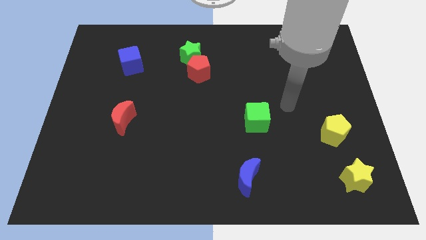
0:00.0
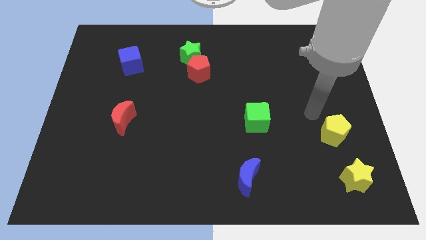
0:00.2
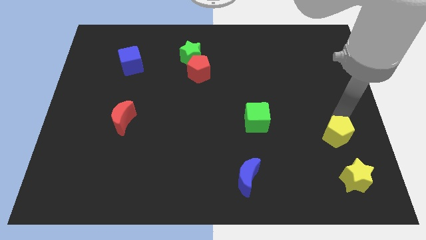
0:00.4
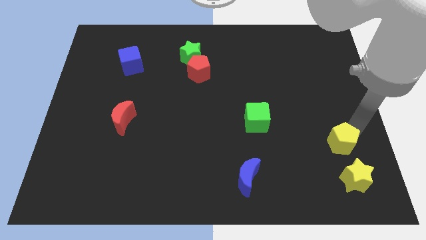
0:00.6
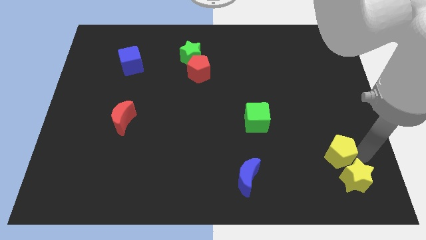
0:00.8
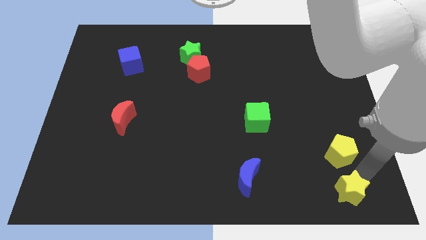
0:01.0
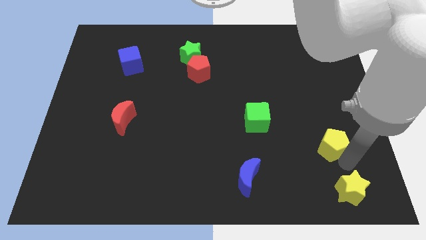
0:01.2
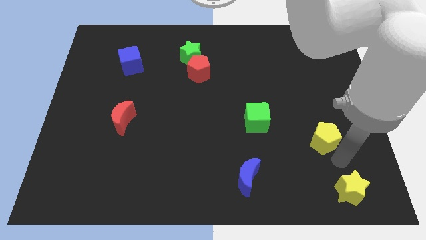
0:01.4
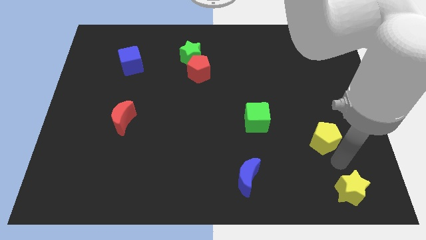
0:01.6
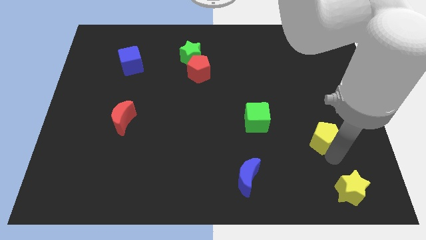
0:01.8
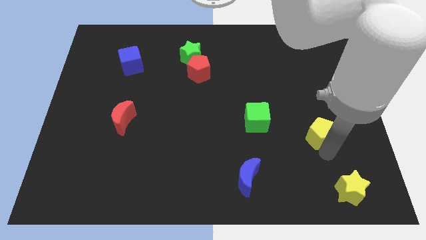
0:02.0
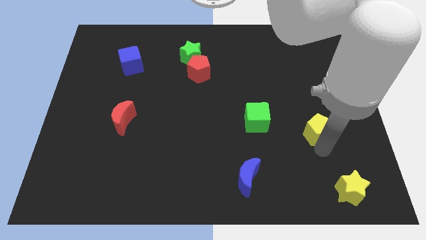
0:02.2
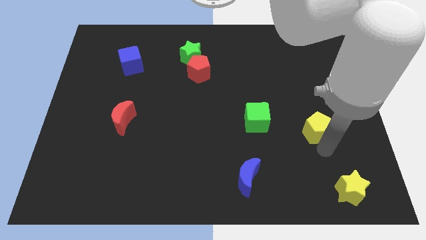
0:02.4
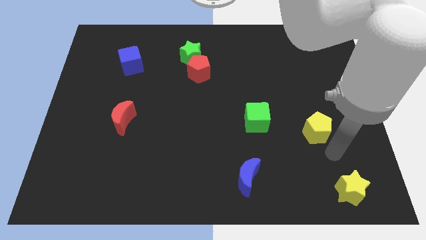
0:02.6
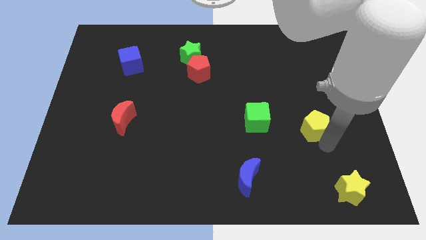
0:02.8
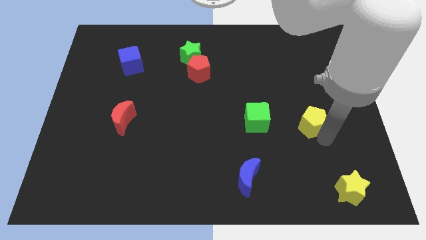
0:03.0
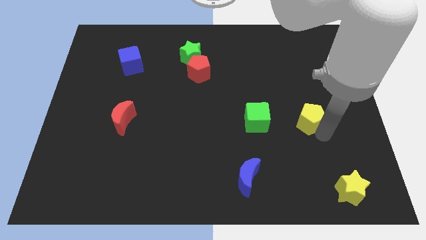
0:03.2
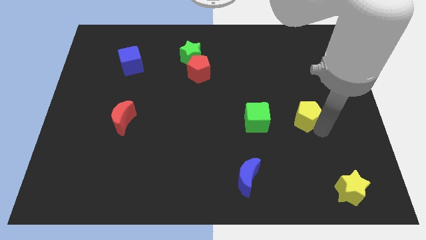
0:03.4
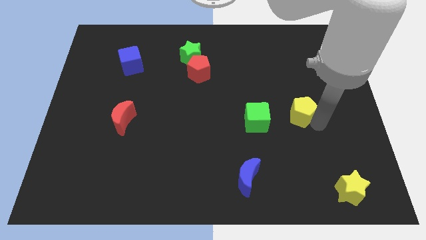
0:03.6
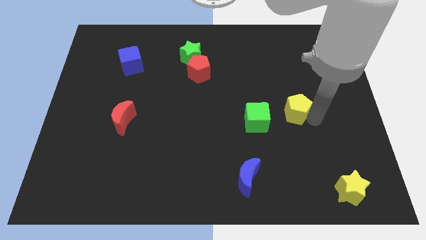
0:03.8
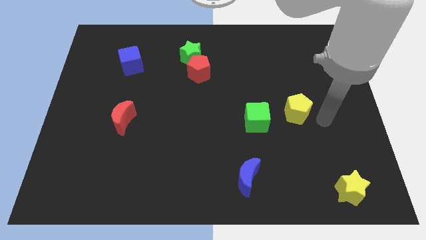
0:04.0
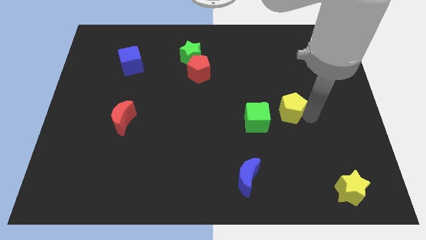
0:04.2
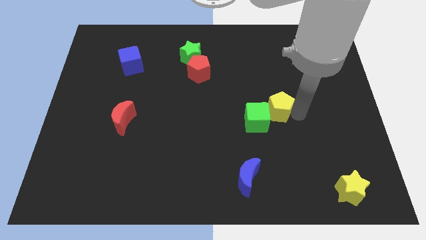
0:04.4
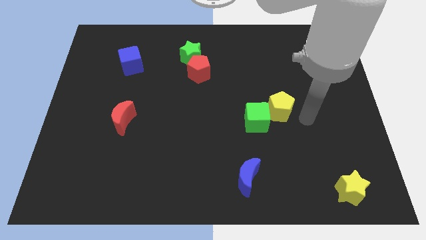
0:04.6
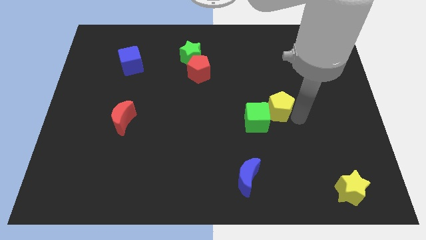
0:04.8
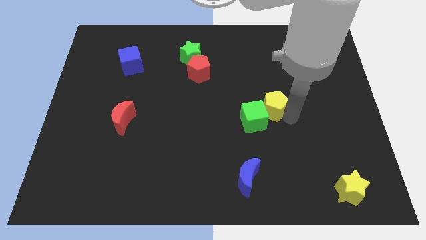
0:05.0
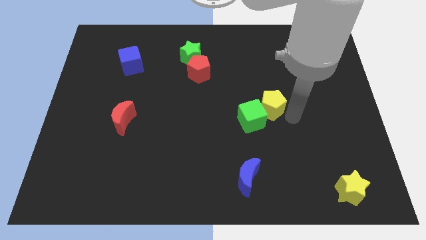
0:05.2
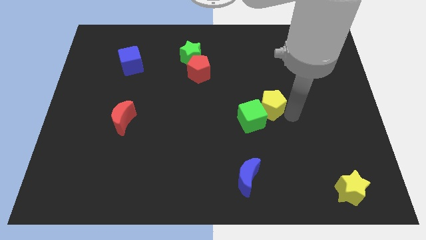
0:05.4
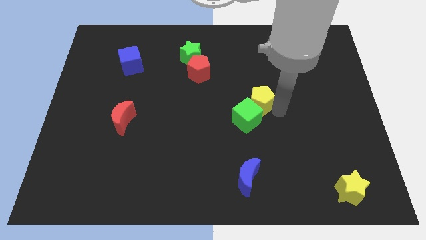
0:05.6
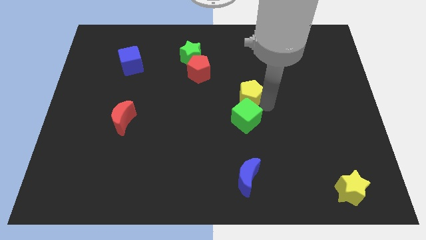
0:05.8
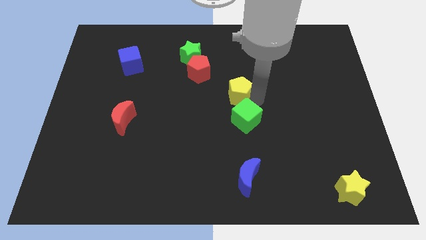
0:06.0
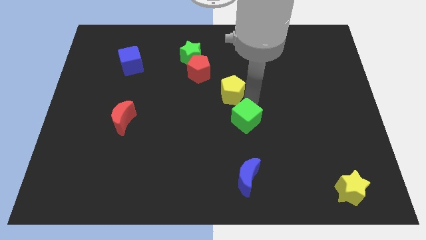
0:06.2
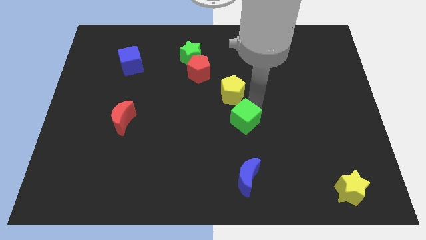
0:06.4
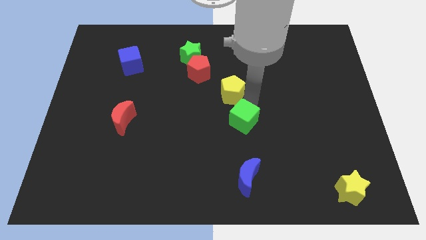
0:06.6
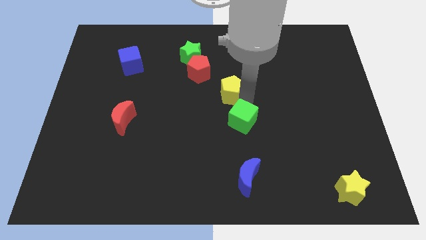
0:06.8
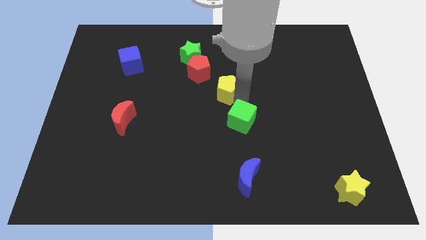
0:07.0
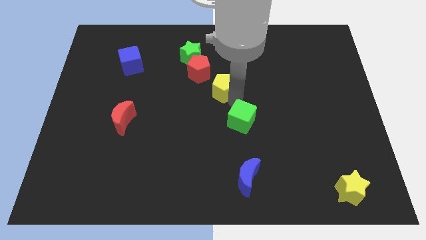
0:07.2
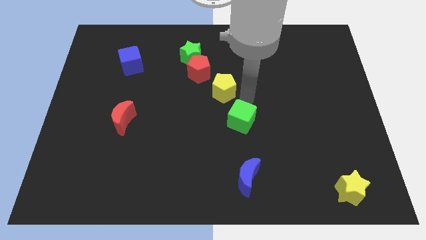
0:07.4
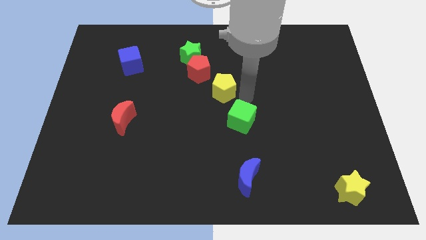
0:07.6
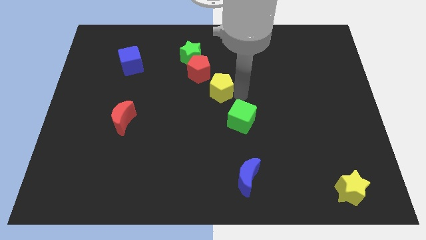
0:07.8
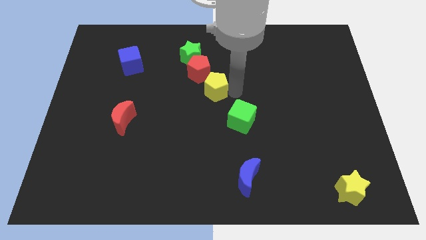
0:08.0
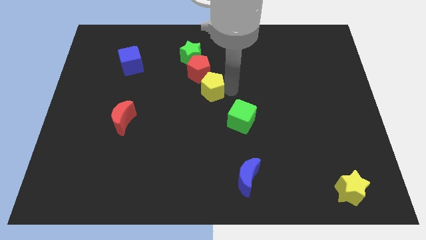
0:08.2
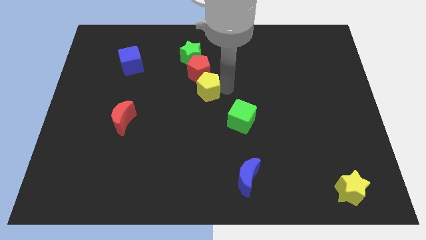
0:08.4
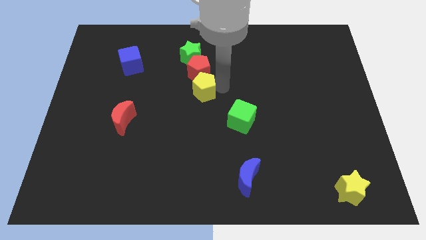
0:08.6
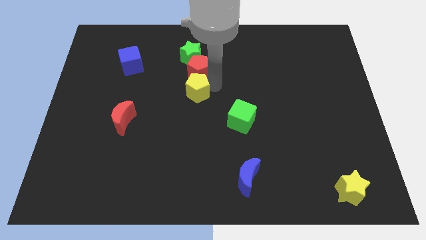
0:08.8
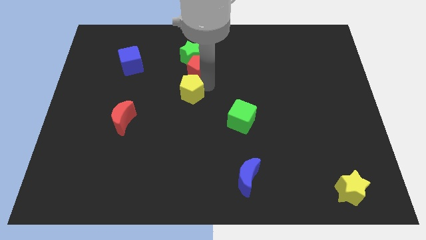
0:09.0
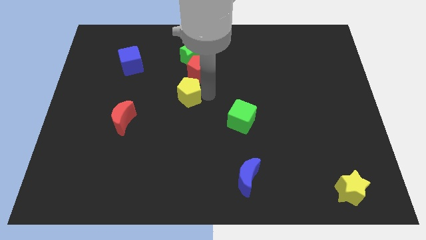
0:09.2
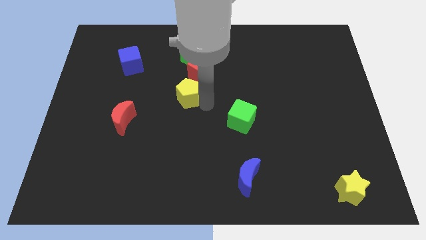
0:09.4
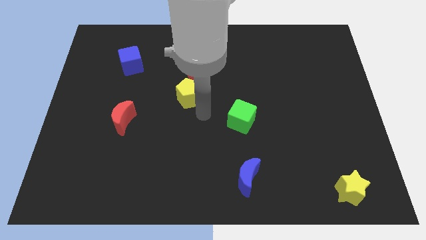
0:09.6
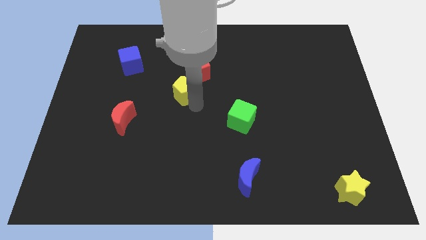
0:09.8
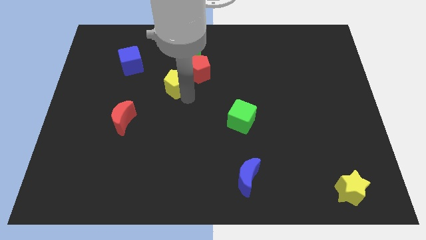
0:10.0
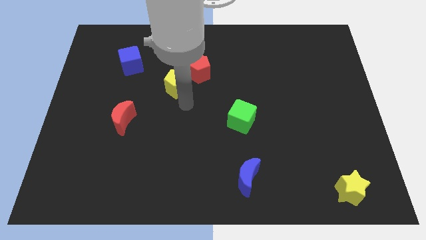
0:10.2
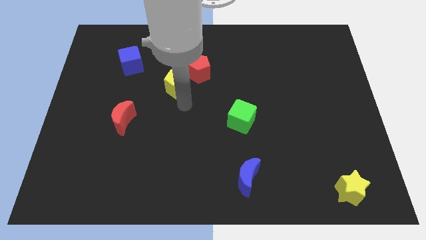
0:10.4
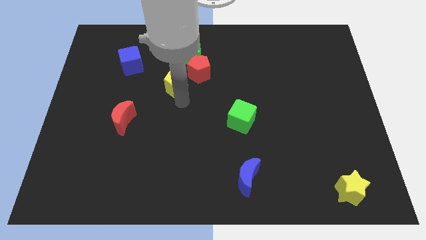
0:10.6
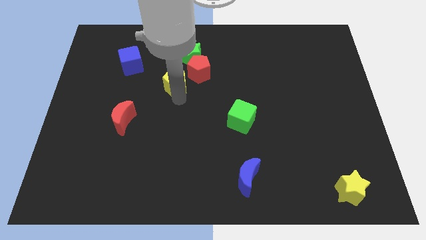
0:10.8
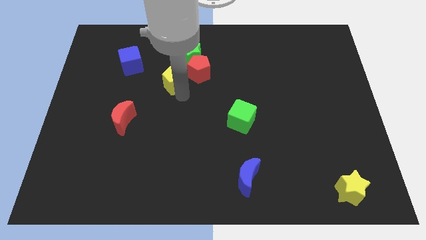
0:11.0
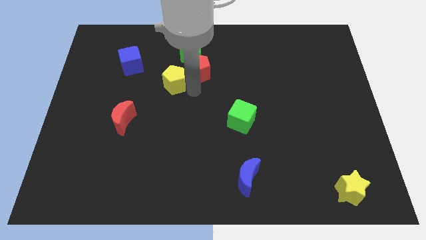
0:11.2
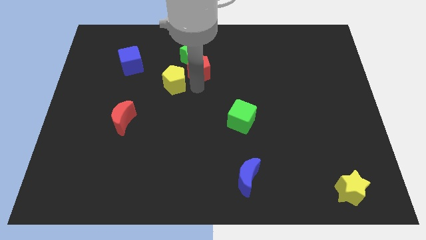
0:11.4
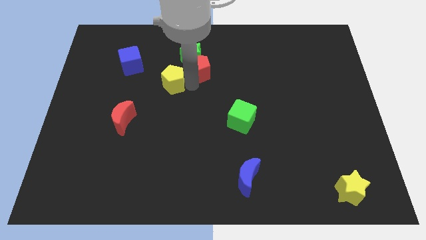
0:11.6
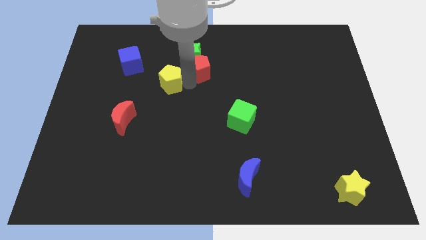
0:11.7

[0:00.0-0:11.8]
slide the yellow pentagon to the bottom right side of the blue cube

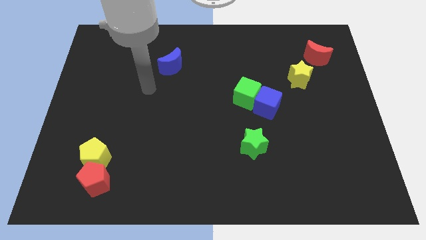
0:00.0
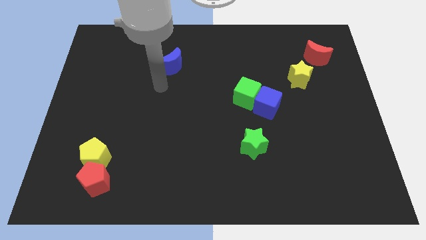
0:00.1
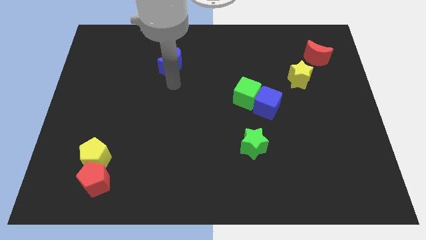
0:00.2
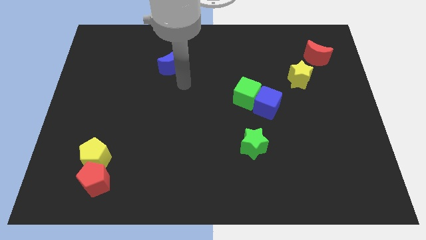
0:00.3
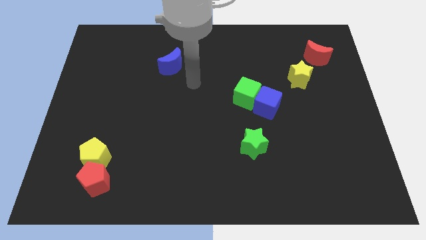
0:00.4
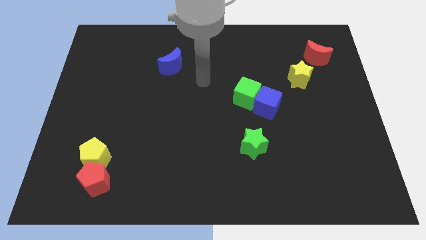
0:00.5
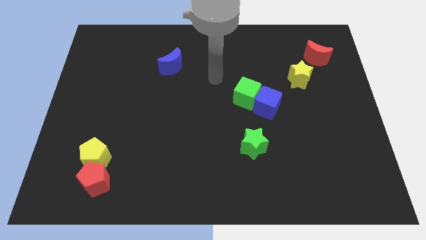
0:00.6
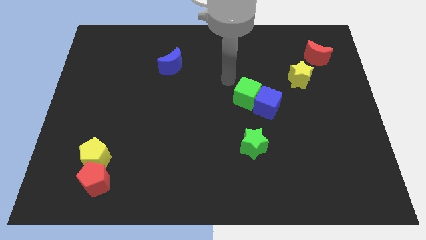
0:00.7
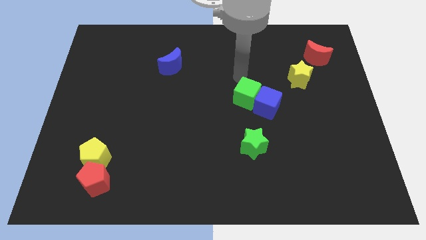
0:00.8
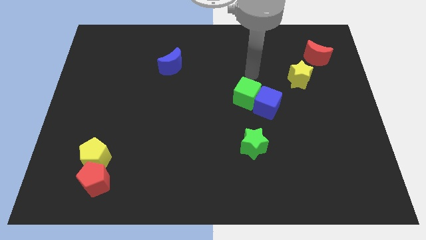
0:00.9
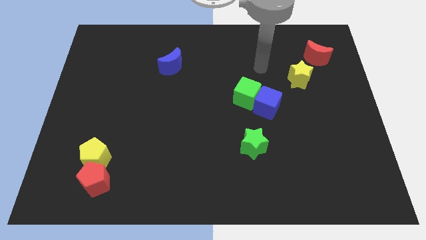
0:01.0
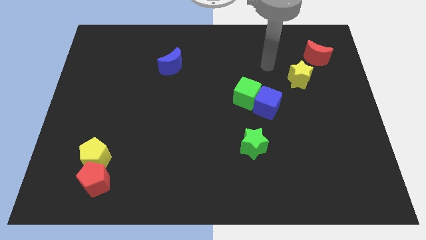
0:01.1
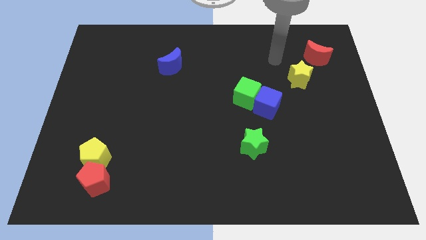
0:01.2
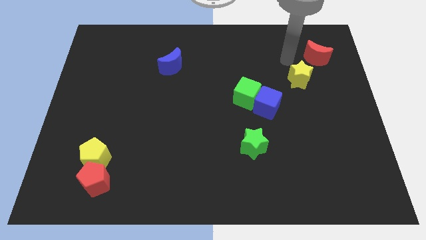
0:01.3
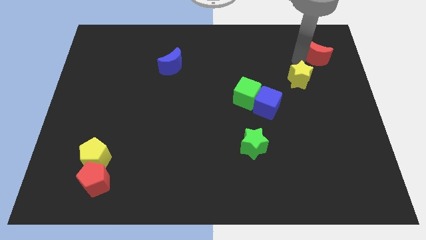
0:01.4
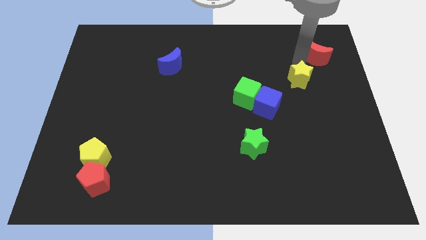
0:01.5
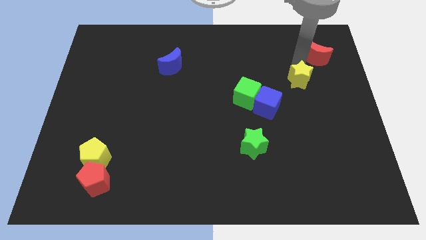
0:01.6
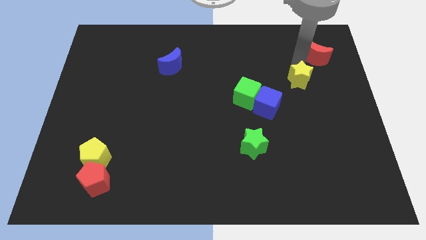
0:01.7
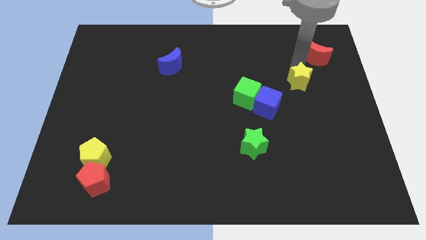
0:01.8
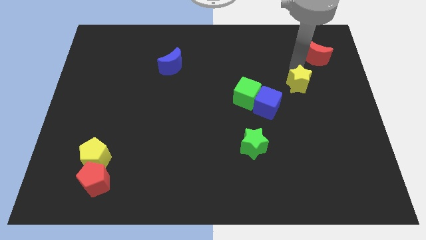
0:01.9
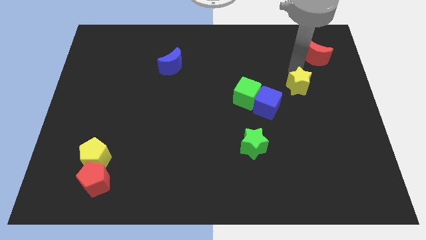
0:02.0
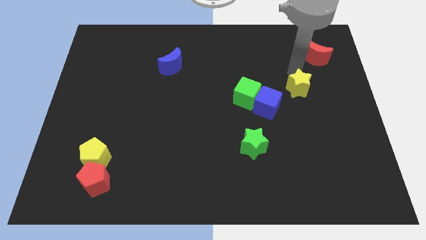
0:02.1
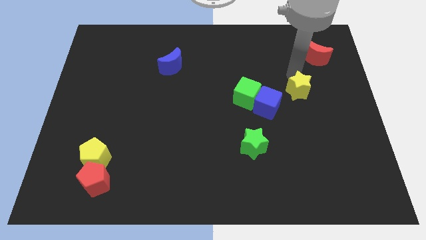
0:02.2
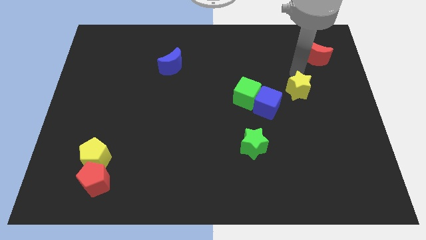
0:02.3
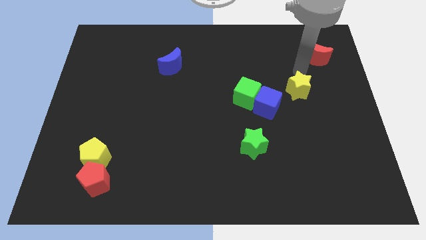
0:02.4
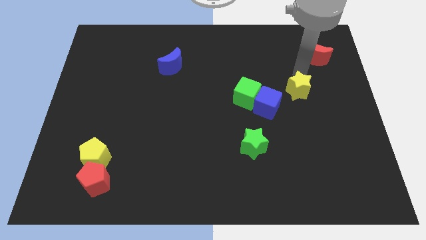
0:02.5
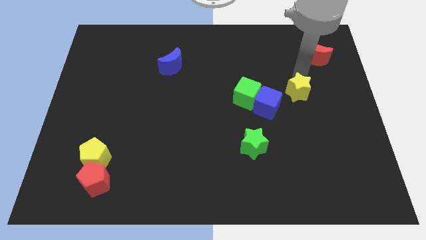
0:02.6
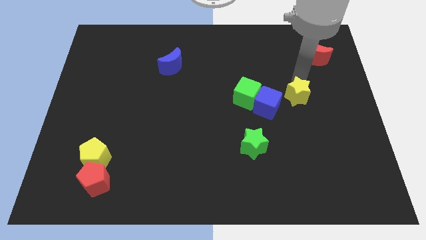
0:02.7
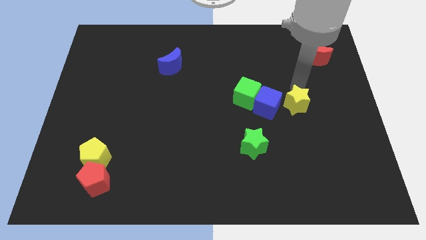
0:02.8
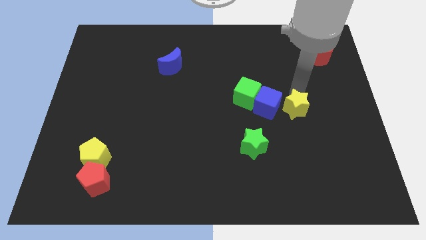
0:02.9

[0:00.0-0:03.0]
push the yellow star to the bottom right of the blue cube
